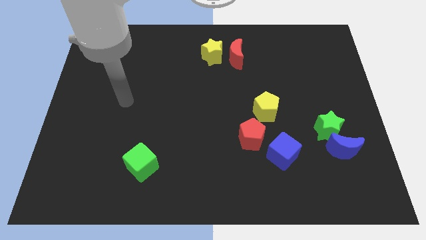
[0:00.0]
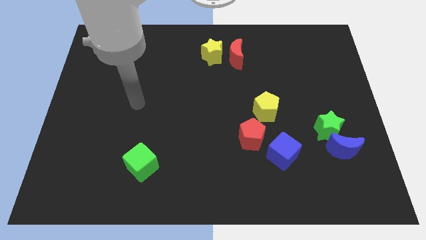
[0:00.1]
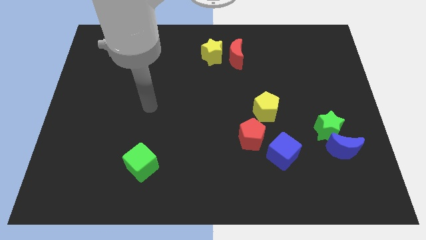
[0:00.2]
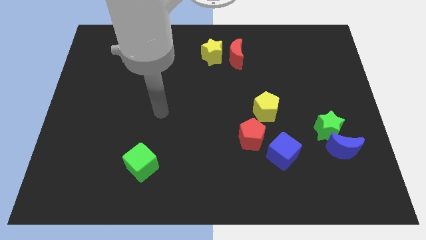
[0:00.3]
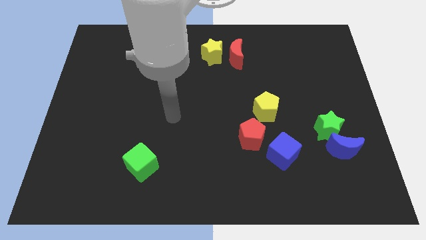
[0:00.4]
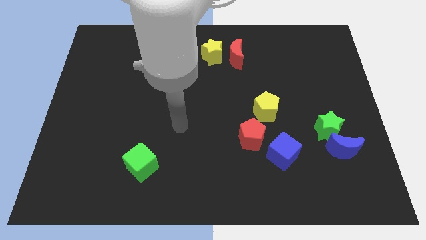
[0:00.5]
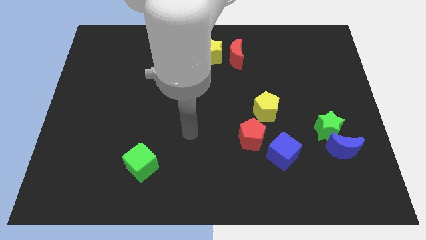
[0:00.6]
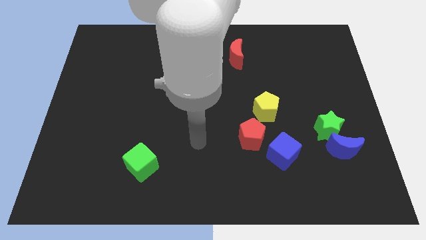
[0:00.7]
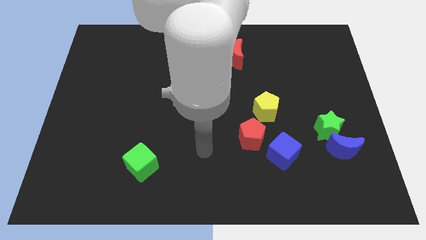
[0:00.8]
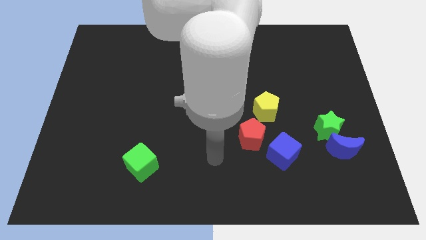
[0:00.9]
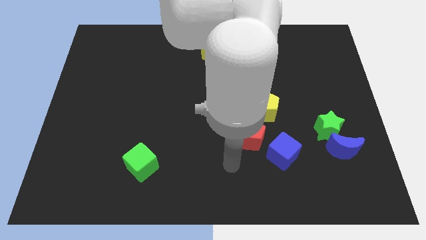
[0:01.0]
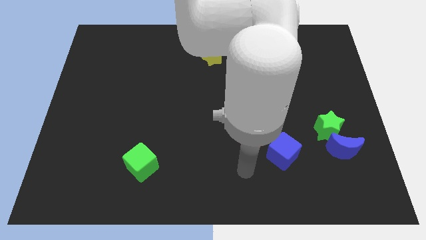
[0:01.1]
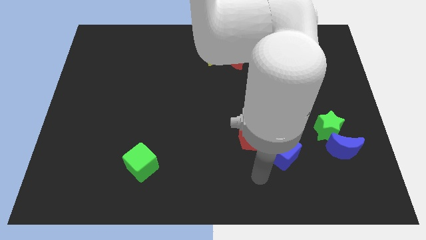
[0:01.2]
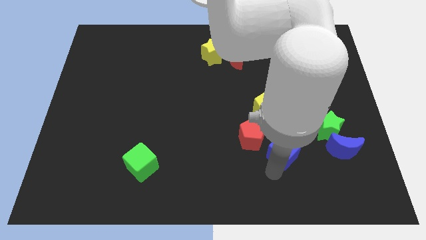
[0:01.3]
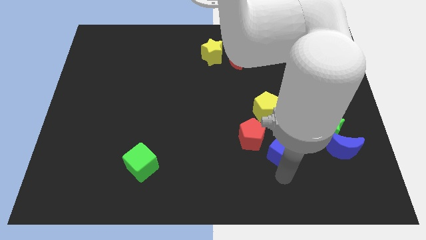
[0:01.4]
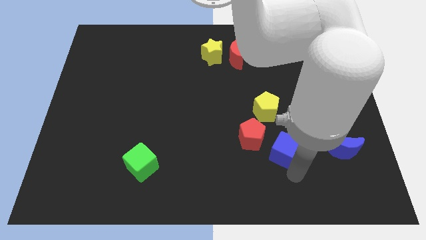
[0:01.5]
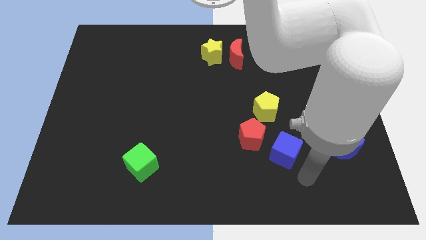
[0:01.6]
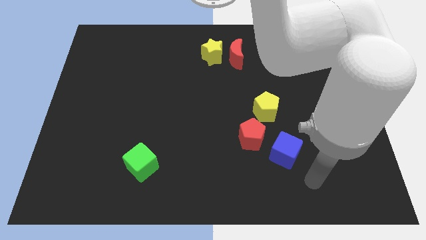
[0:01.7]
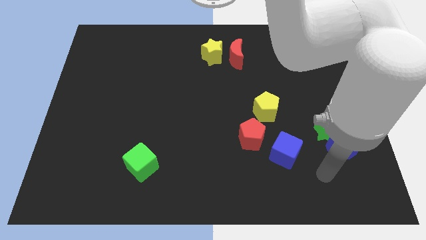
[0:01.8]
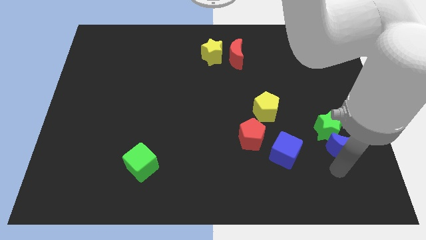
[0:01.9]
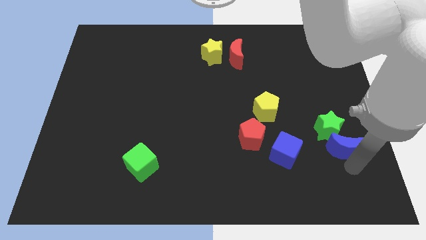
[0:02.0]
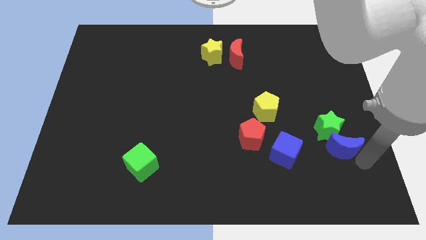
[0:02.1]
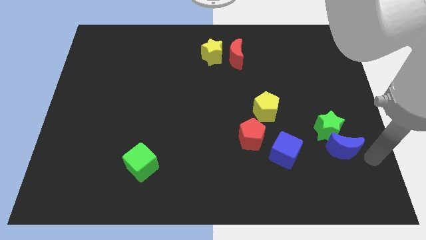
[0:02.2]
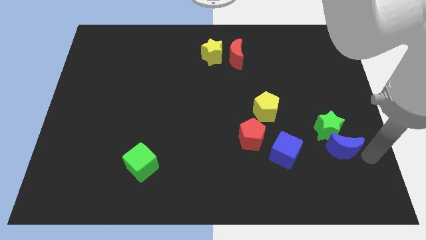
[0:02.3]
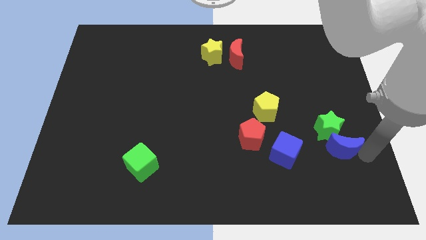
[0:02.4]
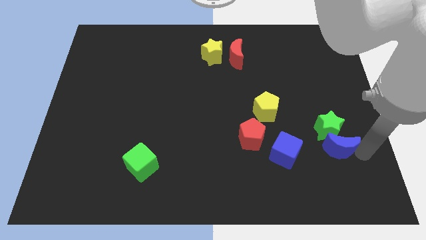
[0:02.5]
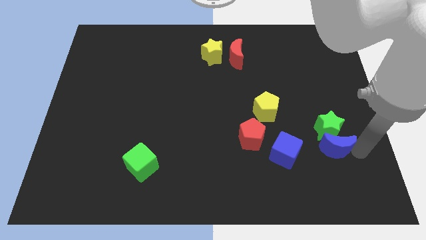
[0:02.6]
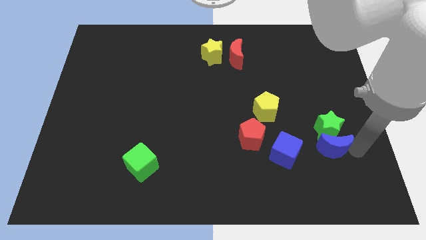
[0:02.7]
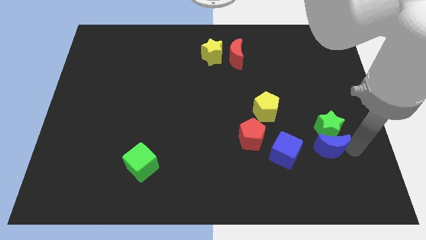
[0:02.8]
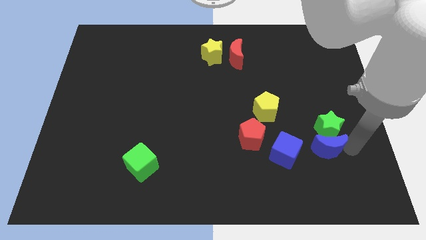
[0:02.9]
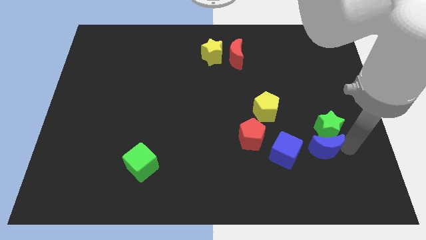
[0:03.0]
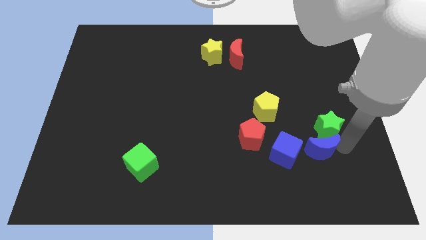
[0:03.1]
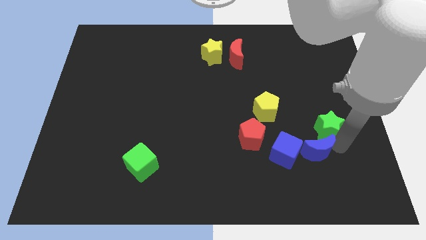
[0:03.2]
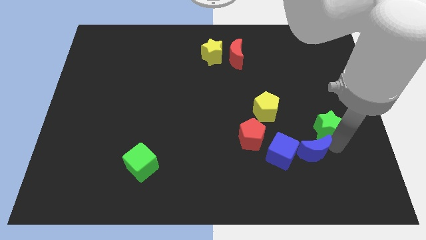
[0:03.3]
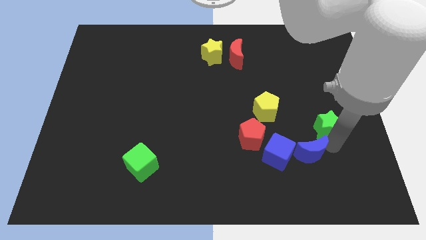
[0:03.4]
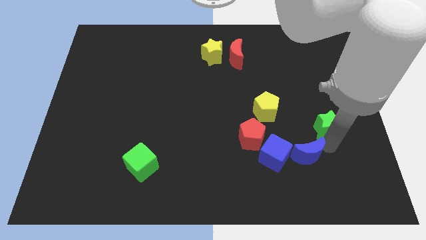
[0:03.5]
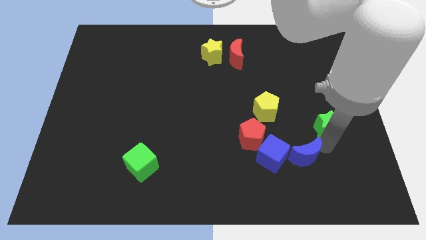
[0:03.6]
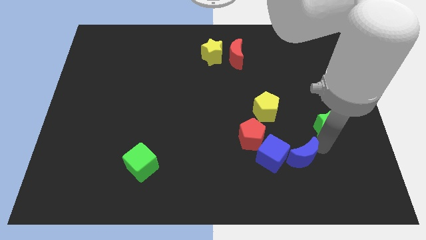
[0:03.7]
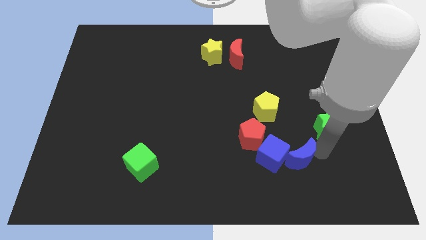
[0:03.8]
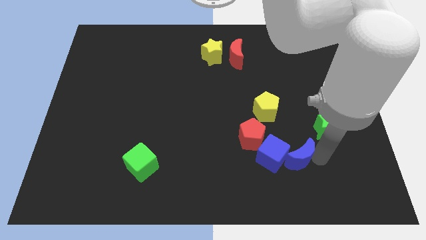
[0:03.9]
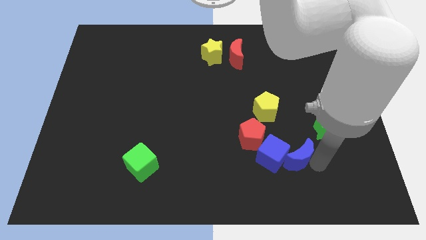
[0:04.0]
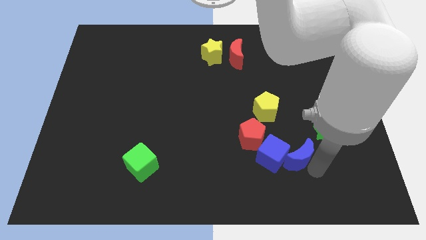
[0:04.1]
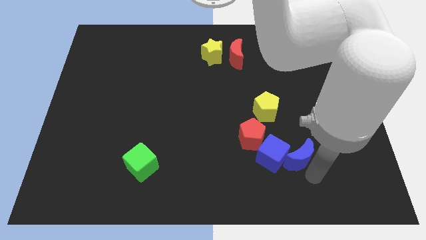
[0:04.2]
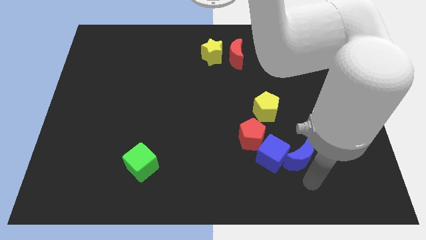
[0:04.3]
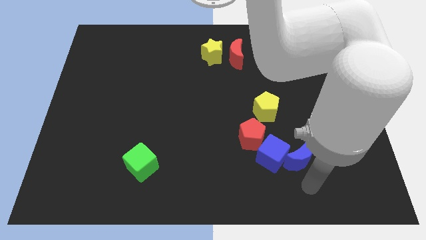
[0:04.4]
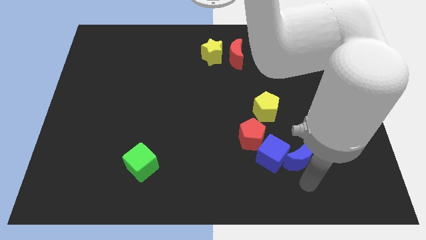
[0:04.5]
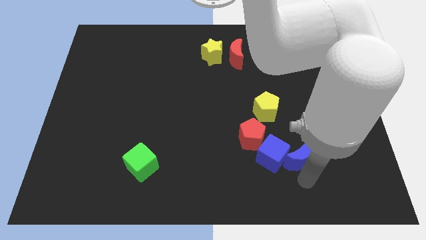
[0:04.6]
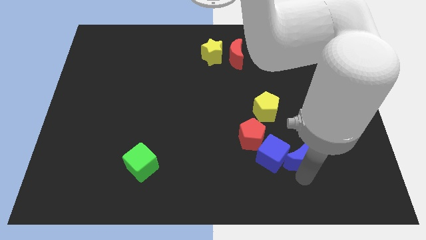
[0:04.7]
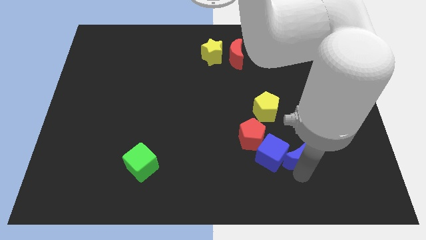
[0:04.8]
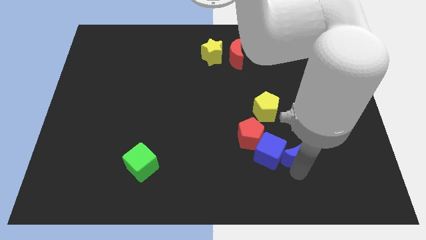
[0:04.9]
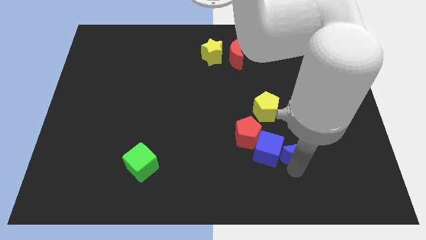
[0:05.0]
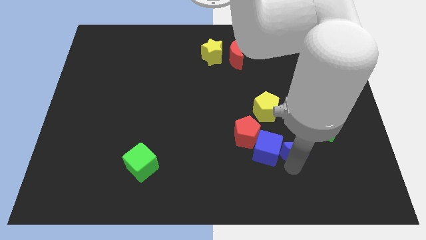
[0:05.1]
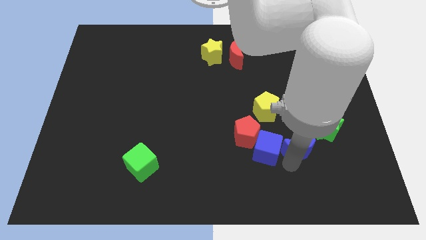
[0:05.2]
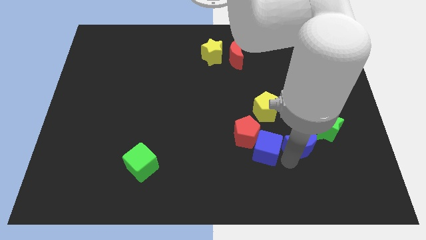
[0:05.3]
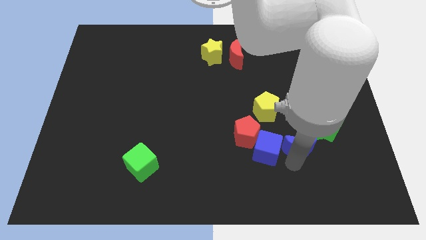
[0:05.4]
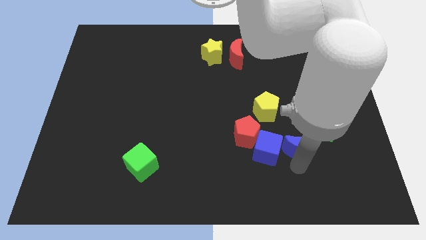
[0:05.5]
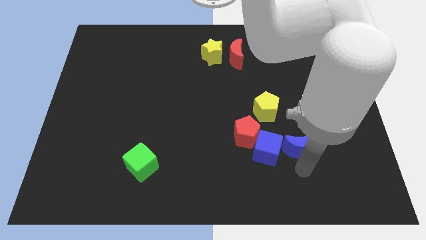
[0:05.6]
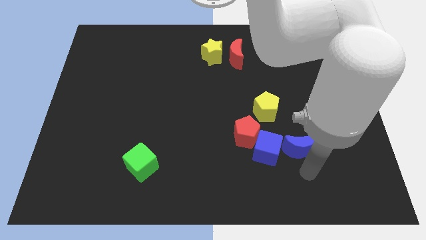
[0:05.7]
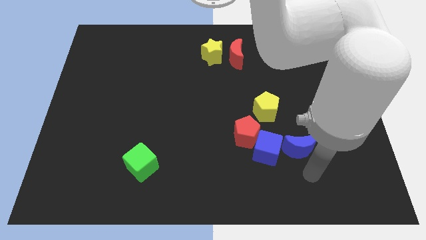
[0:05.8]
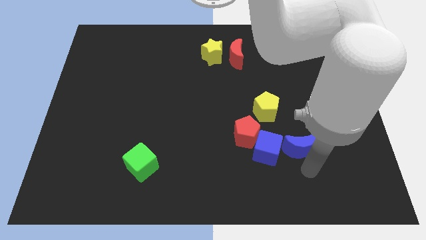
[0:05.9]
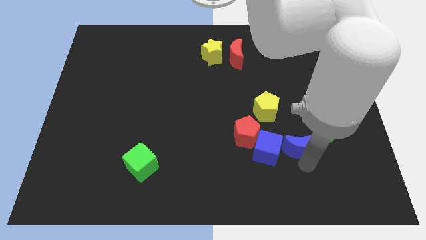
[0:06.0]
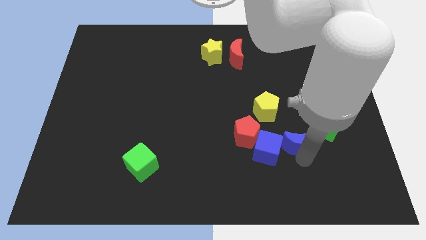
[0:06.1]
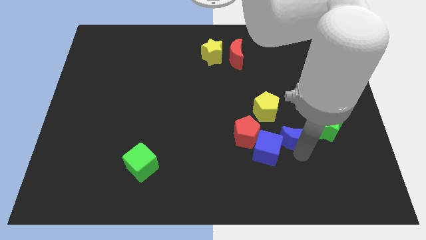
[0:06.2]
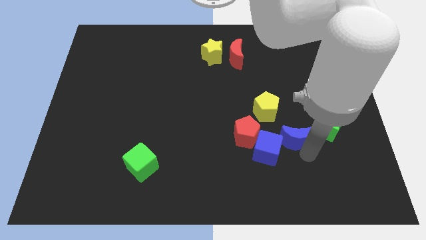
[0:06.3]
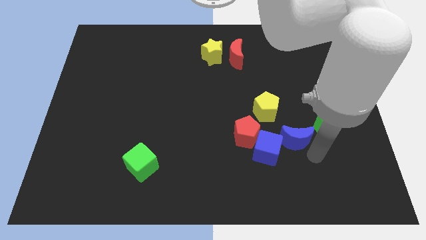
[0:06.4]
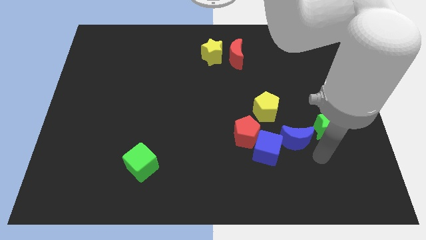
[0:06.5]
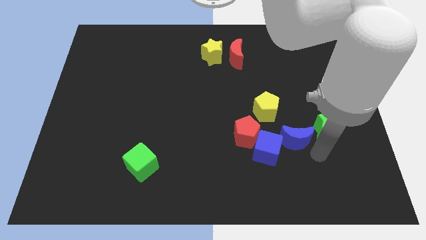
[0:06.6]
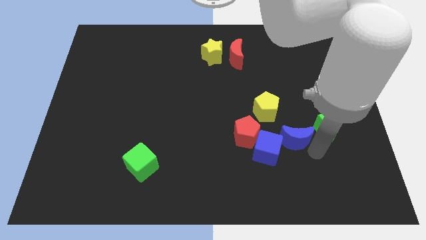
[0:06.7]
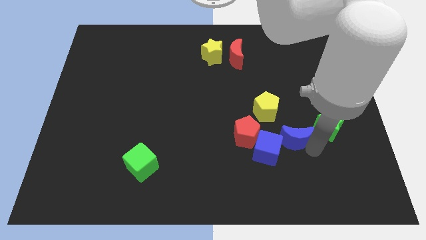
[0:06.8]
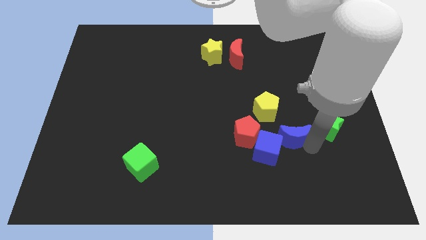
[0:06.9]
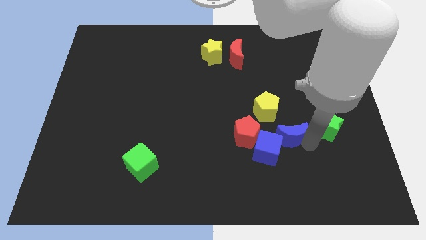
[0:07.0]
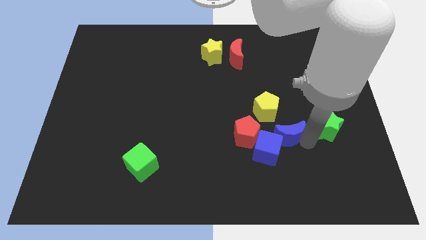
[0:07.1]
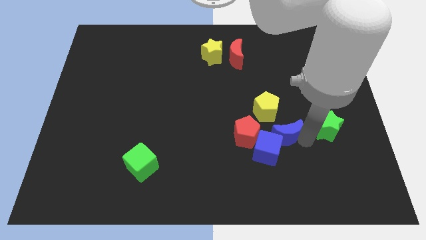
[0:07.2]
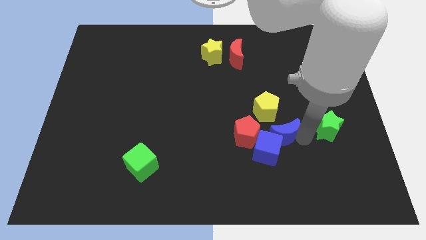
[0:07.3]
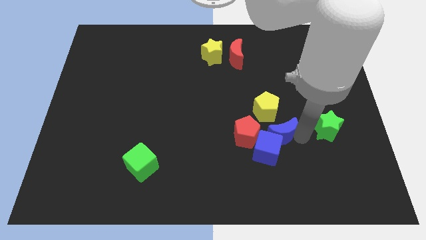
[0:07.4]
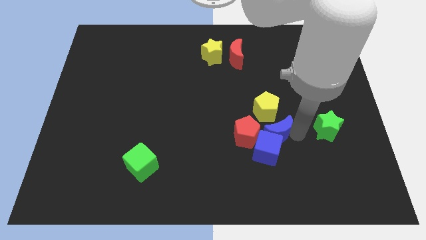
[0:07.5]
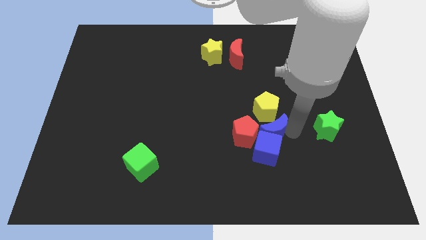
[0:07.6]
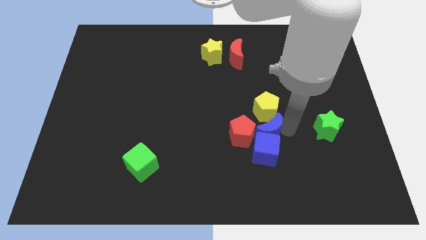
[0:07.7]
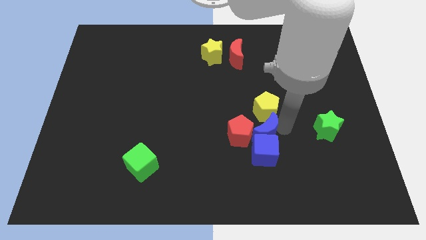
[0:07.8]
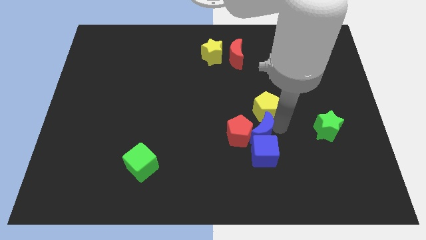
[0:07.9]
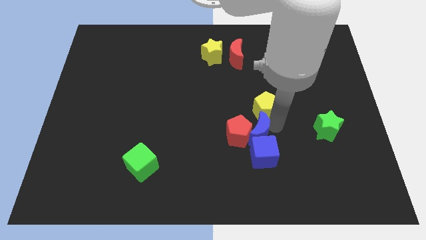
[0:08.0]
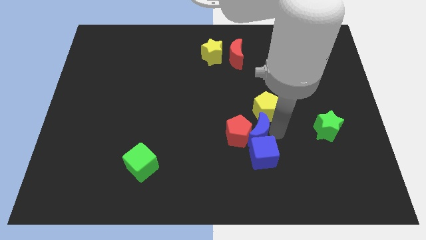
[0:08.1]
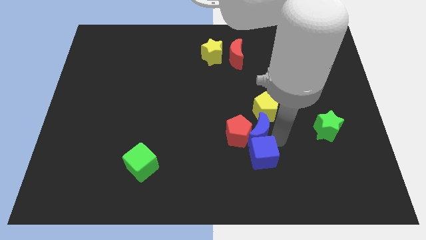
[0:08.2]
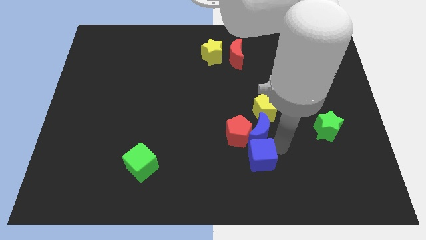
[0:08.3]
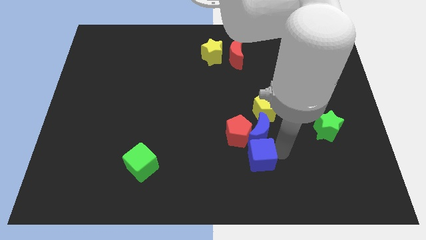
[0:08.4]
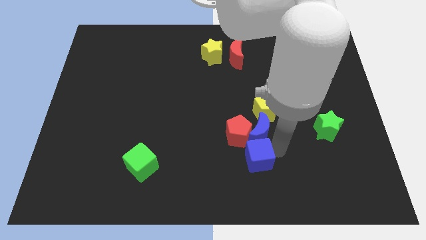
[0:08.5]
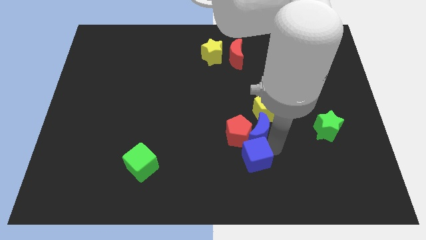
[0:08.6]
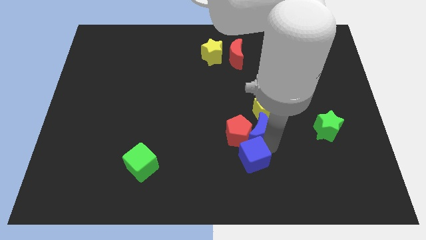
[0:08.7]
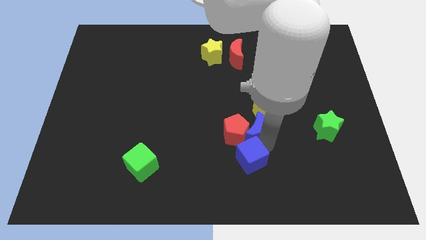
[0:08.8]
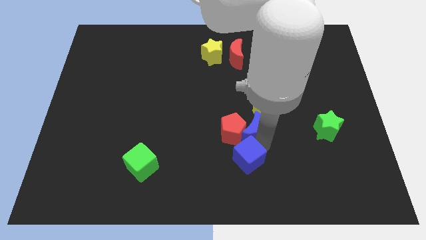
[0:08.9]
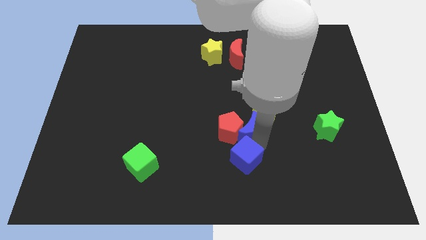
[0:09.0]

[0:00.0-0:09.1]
put the blue moon to the center of the board
